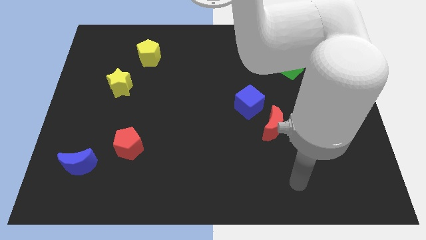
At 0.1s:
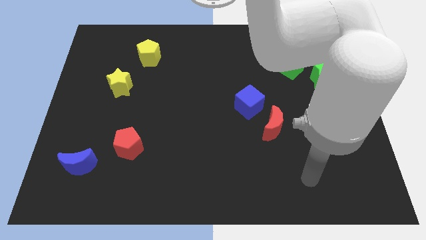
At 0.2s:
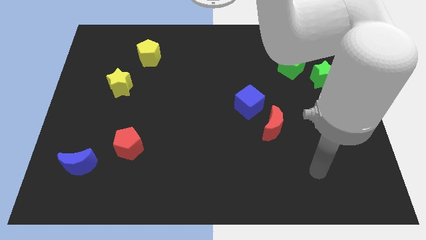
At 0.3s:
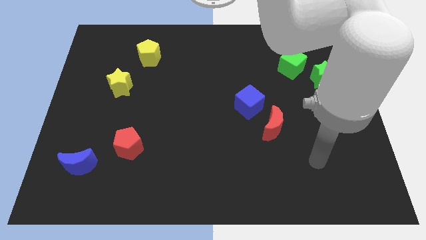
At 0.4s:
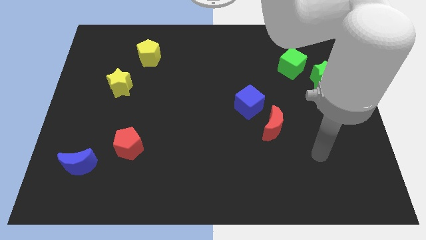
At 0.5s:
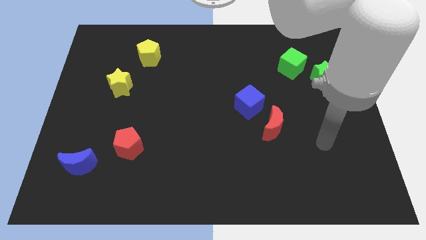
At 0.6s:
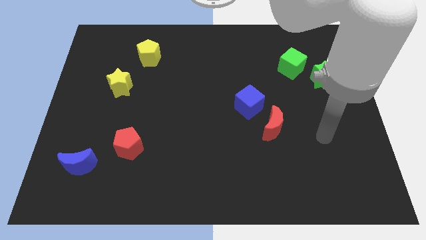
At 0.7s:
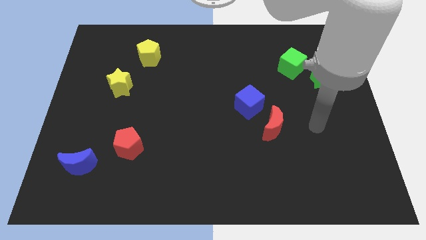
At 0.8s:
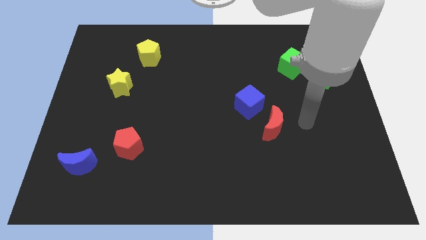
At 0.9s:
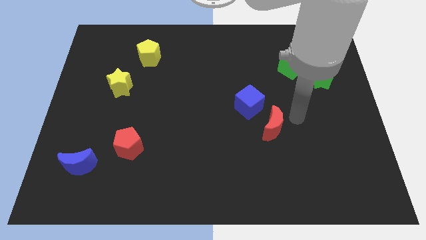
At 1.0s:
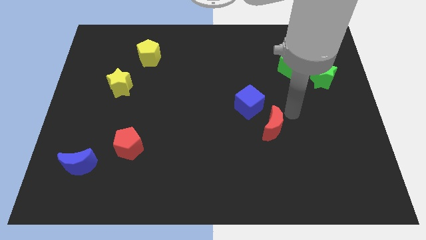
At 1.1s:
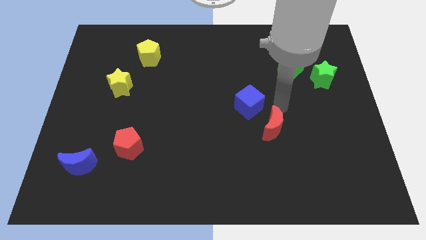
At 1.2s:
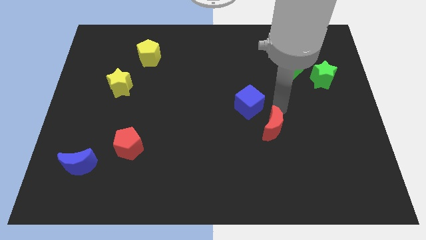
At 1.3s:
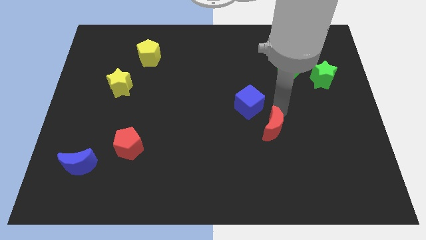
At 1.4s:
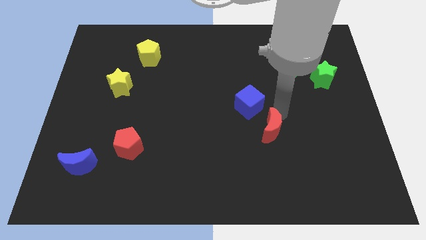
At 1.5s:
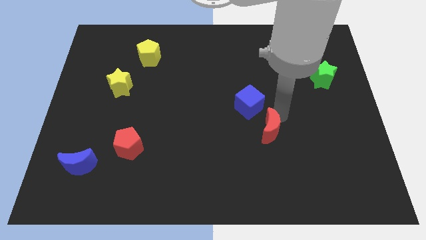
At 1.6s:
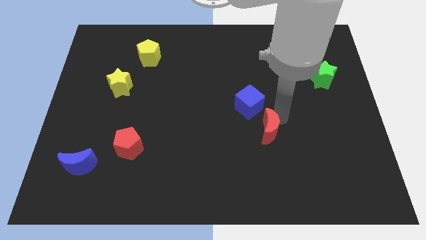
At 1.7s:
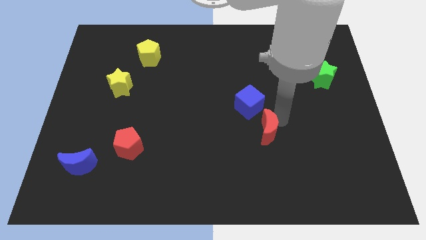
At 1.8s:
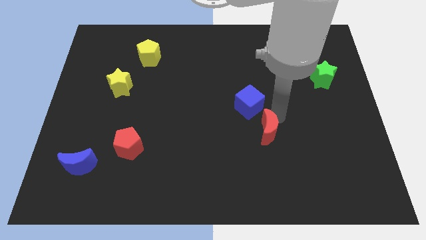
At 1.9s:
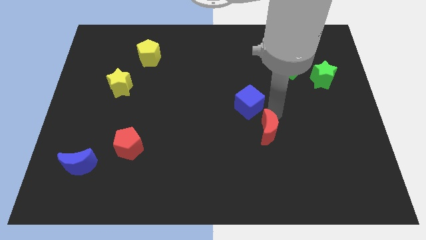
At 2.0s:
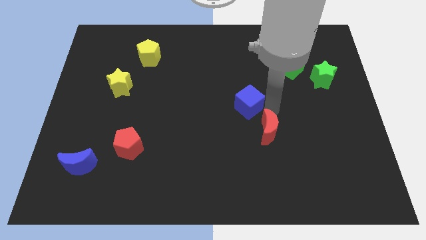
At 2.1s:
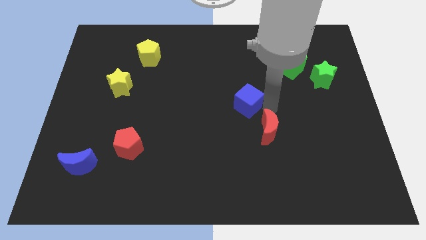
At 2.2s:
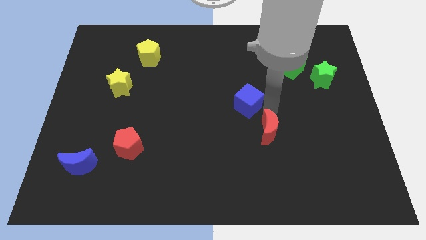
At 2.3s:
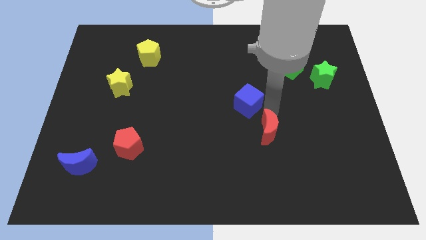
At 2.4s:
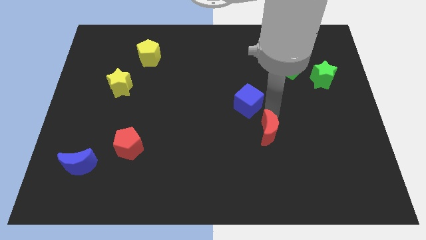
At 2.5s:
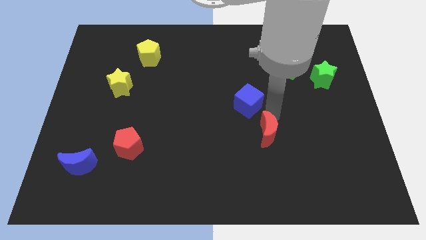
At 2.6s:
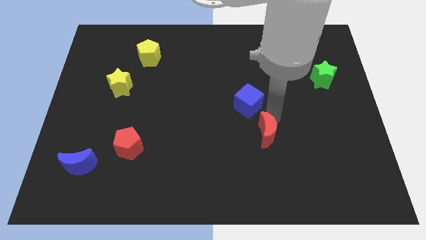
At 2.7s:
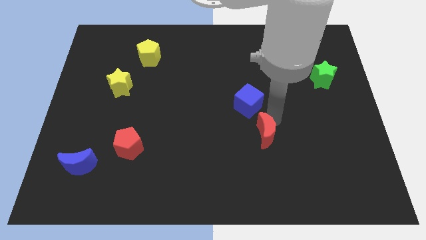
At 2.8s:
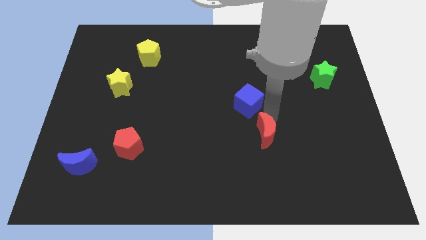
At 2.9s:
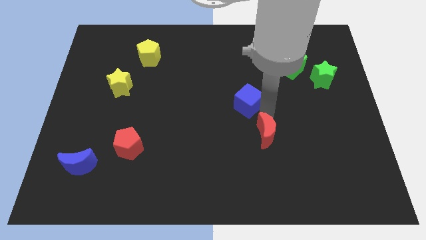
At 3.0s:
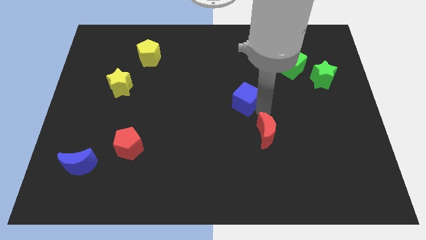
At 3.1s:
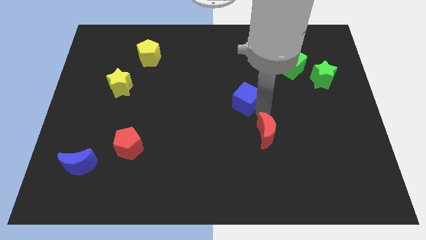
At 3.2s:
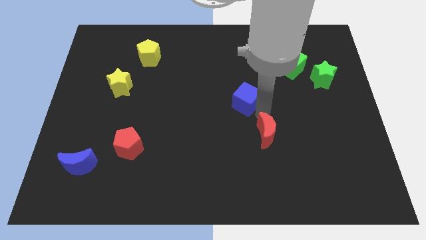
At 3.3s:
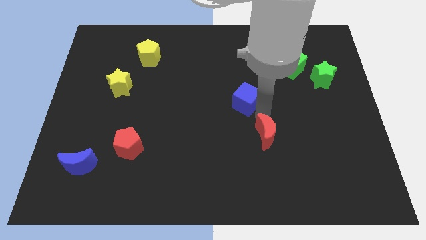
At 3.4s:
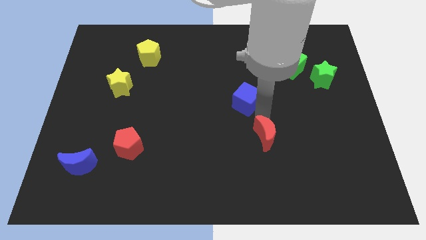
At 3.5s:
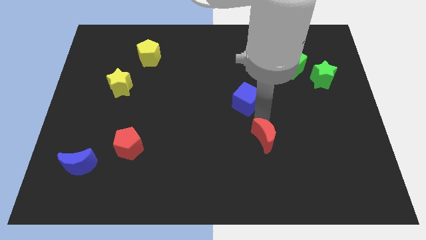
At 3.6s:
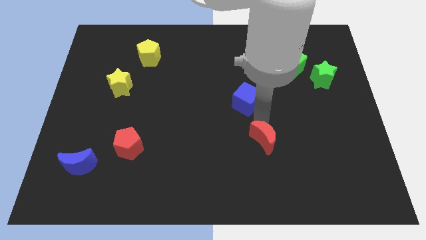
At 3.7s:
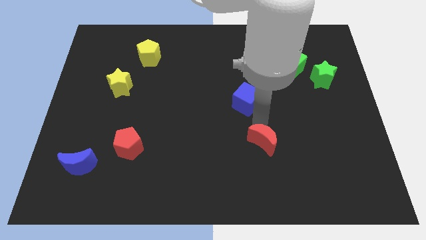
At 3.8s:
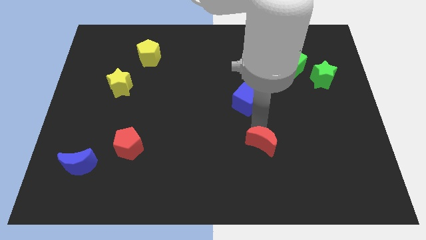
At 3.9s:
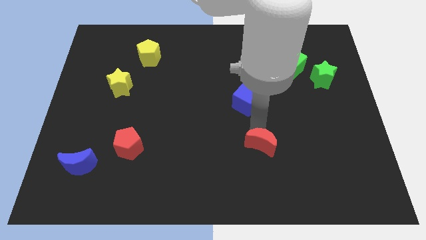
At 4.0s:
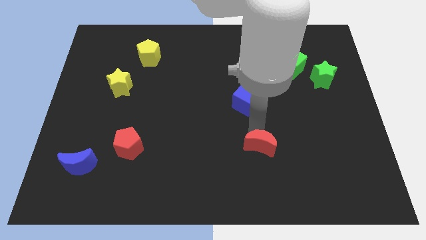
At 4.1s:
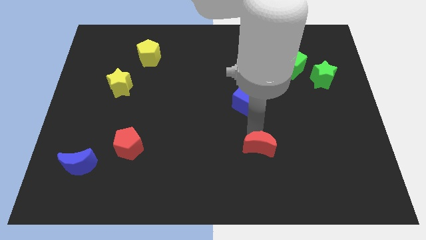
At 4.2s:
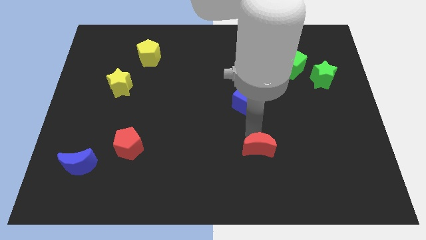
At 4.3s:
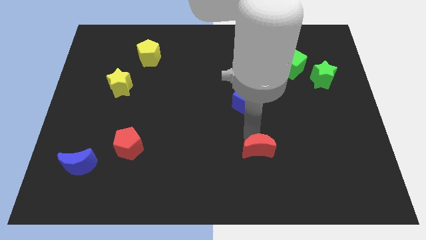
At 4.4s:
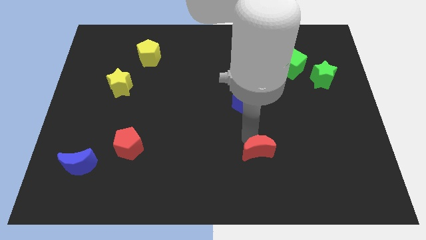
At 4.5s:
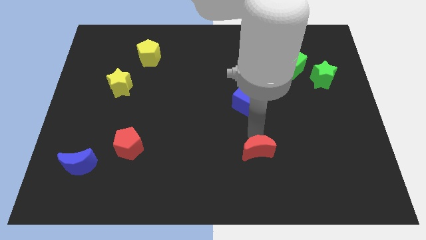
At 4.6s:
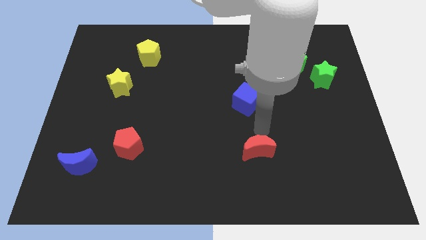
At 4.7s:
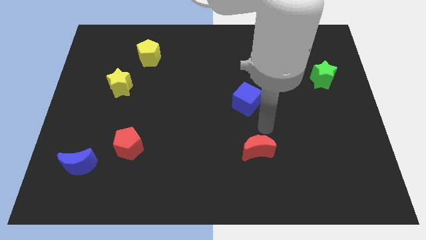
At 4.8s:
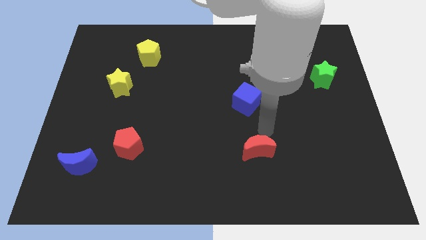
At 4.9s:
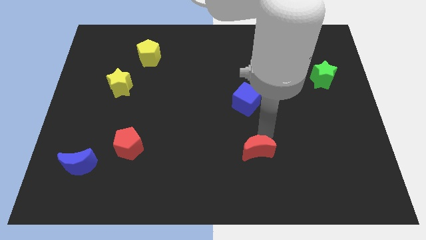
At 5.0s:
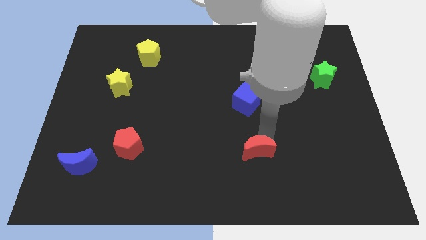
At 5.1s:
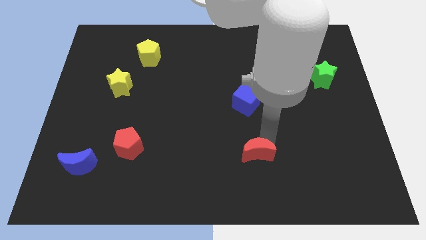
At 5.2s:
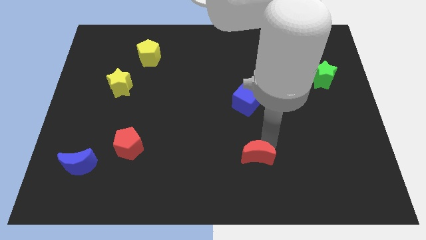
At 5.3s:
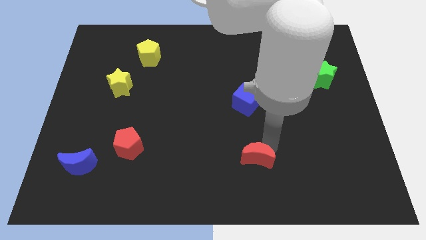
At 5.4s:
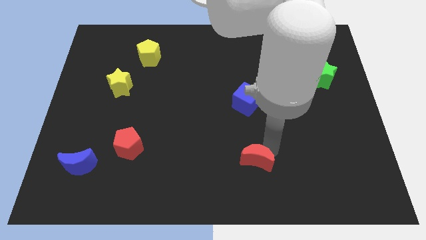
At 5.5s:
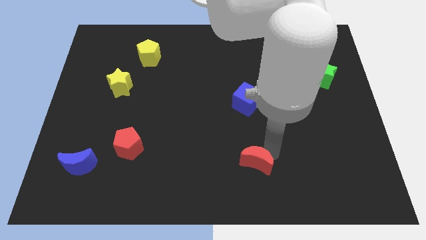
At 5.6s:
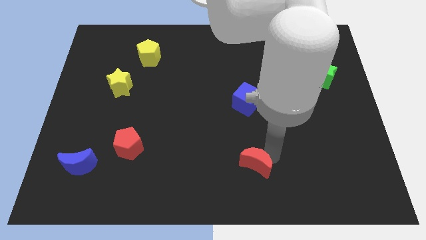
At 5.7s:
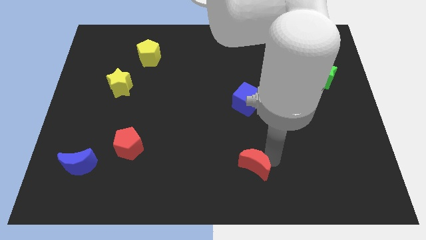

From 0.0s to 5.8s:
push the red moon to the bottom side

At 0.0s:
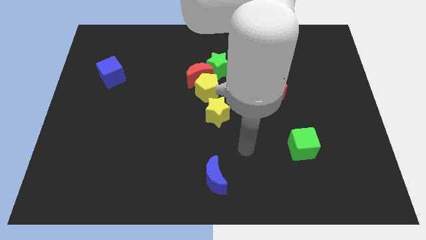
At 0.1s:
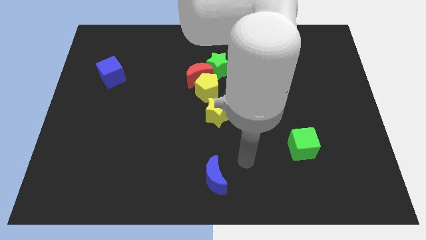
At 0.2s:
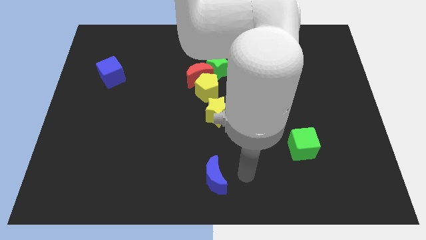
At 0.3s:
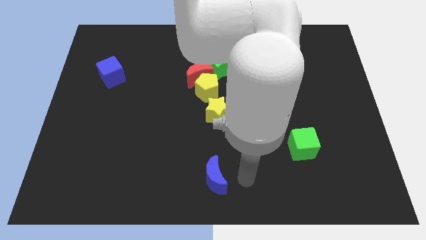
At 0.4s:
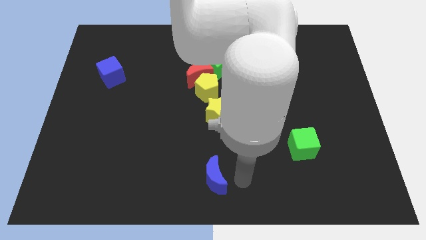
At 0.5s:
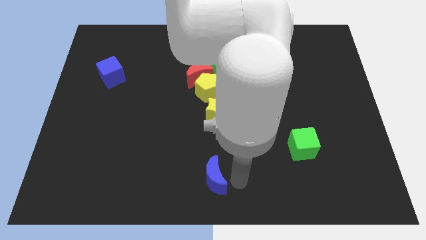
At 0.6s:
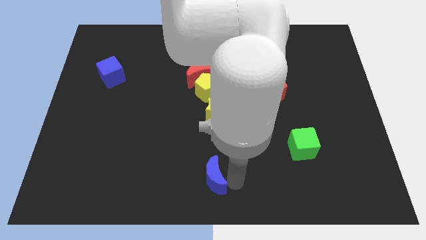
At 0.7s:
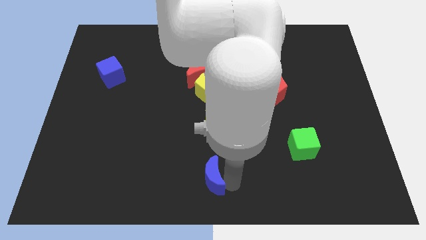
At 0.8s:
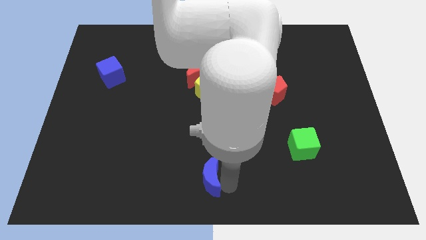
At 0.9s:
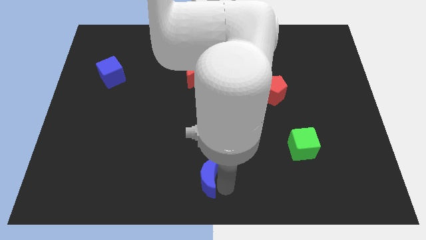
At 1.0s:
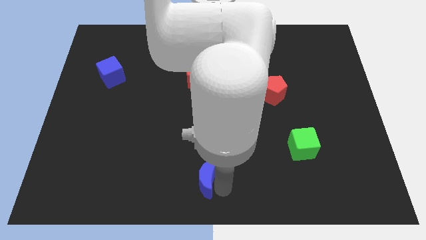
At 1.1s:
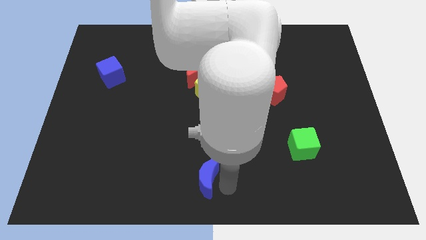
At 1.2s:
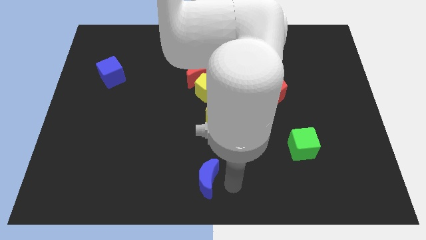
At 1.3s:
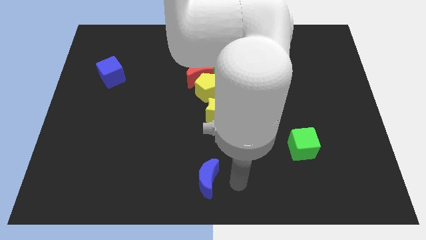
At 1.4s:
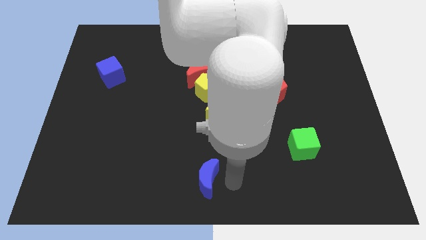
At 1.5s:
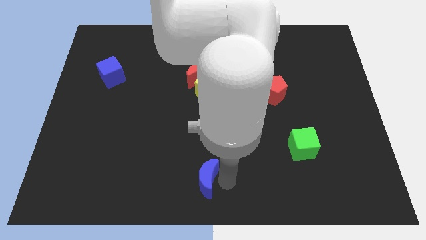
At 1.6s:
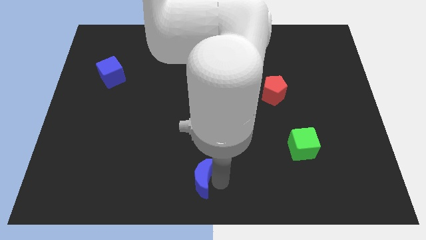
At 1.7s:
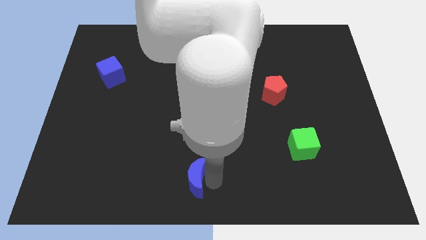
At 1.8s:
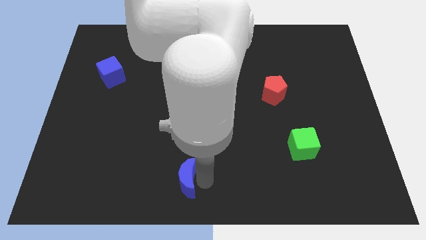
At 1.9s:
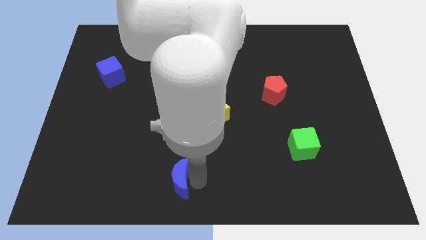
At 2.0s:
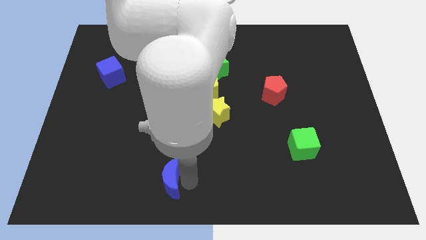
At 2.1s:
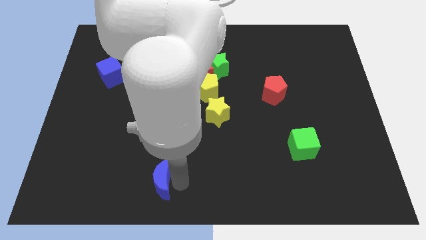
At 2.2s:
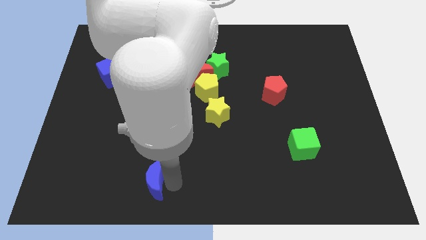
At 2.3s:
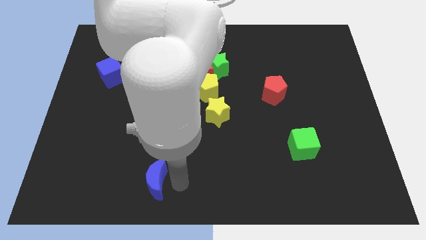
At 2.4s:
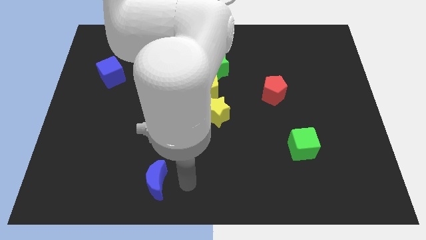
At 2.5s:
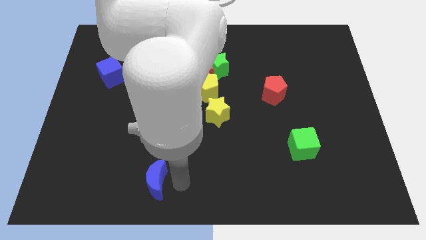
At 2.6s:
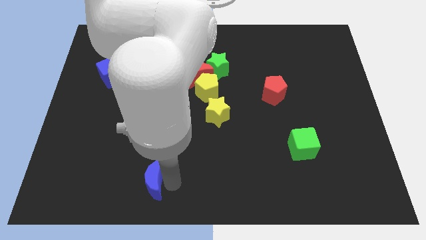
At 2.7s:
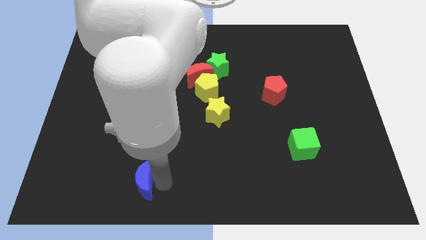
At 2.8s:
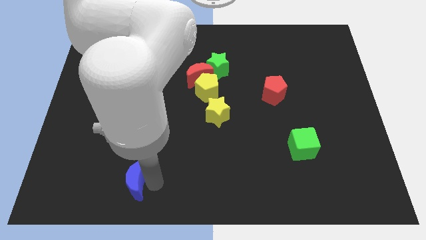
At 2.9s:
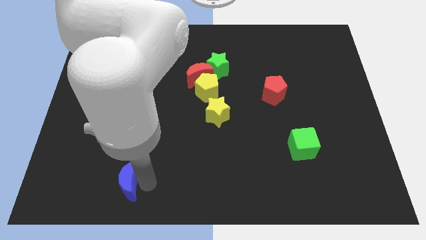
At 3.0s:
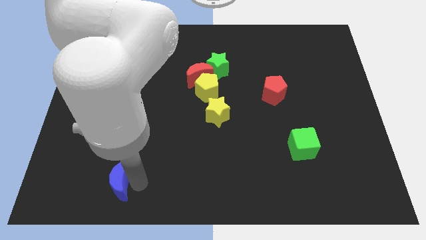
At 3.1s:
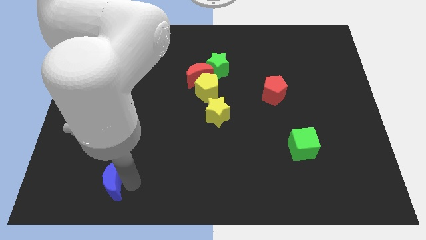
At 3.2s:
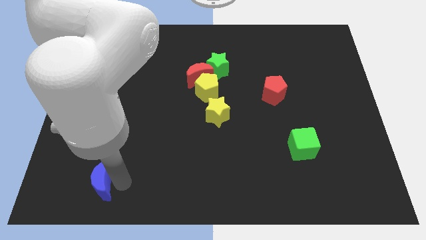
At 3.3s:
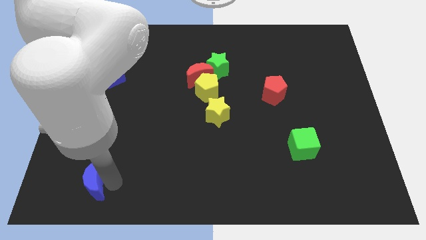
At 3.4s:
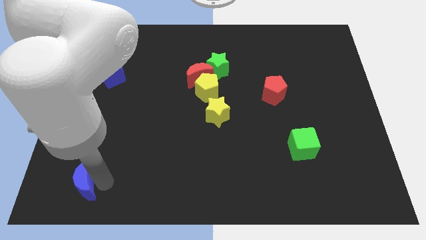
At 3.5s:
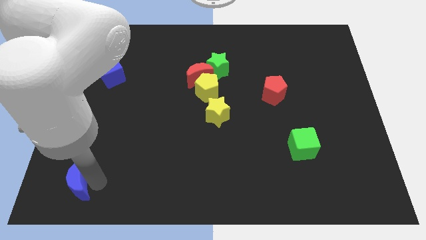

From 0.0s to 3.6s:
move the blue moon to the lower left corner
